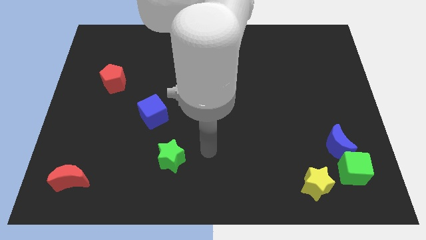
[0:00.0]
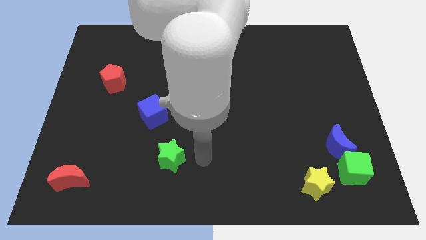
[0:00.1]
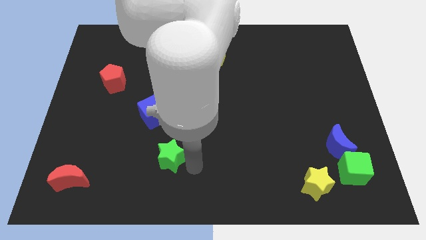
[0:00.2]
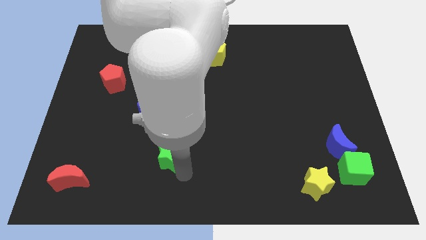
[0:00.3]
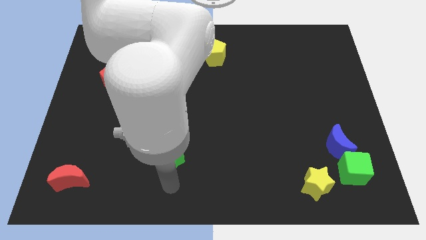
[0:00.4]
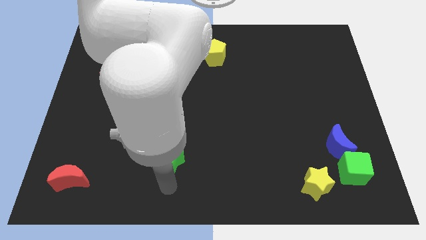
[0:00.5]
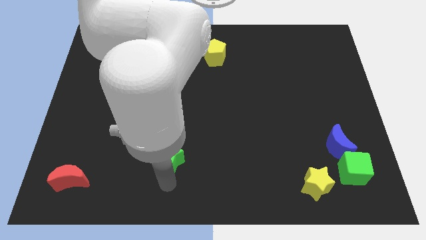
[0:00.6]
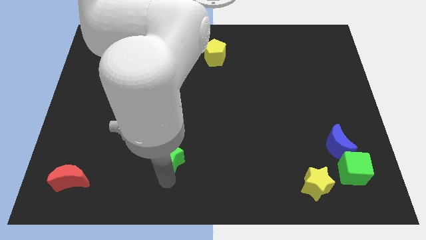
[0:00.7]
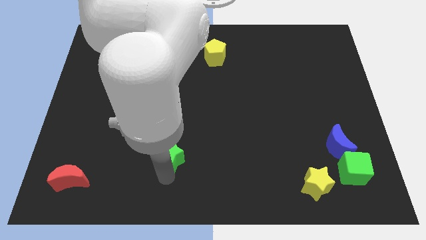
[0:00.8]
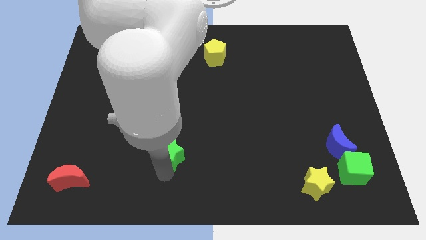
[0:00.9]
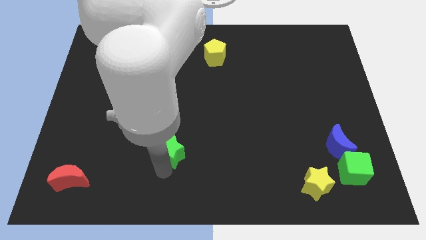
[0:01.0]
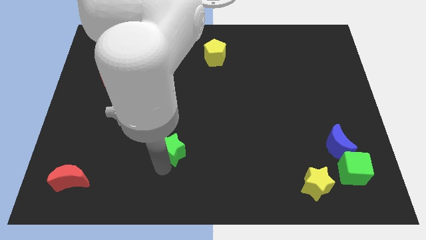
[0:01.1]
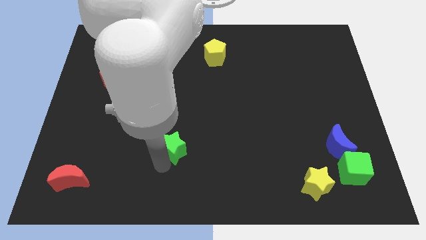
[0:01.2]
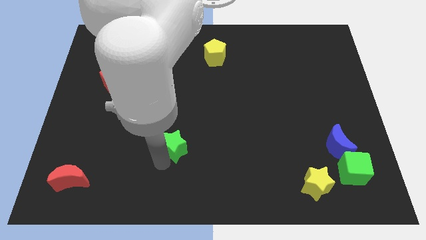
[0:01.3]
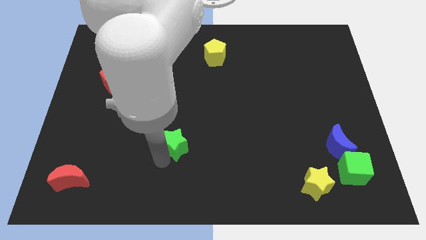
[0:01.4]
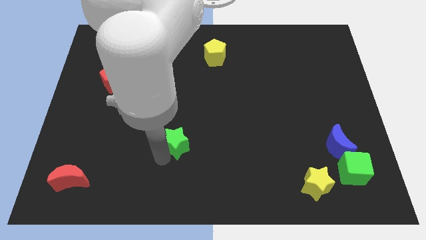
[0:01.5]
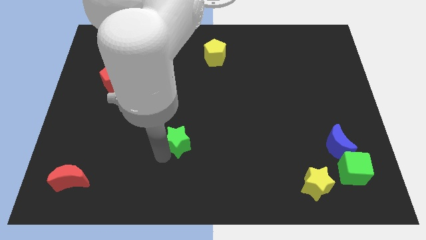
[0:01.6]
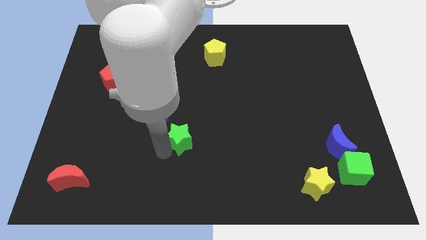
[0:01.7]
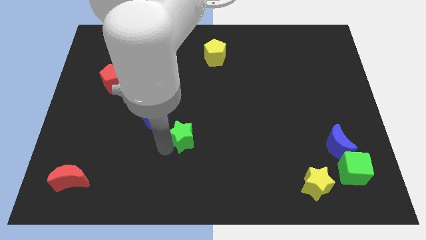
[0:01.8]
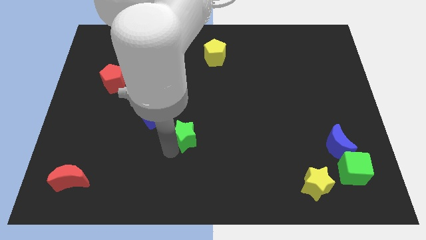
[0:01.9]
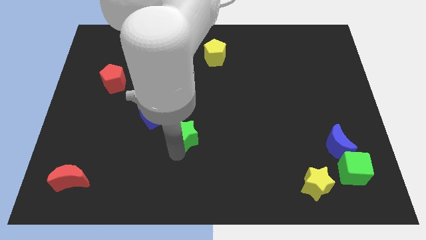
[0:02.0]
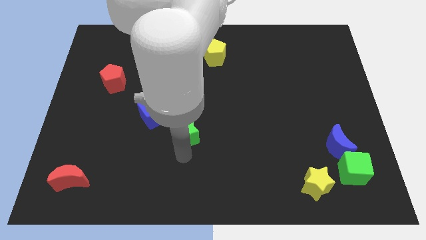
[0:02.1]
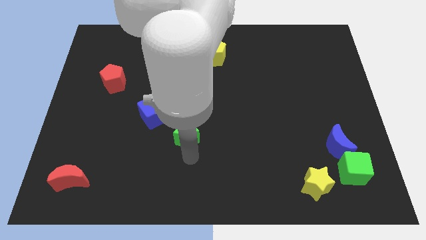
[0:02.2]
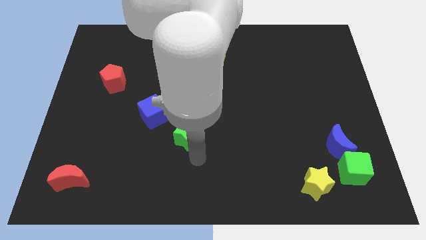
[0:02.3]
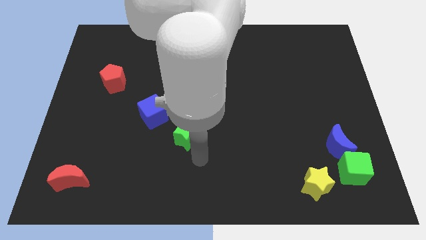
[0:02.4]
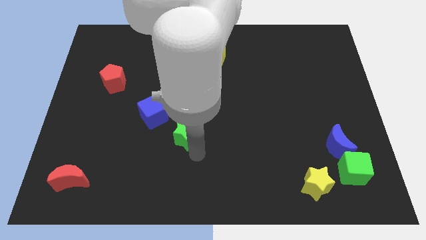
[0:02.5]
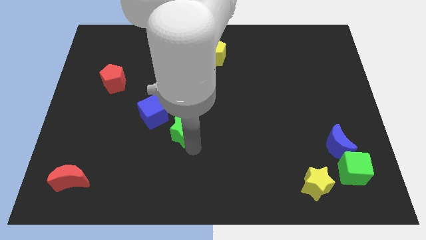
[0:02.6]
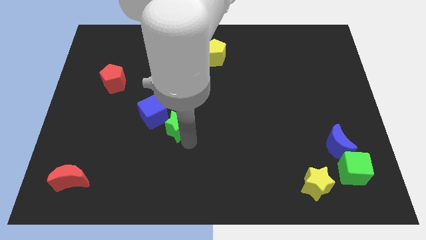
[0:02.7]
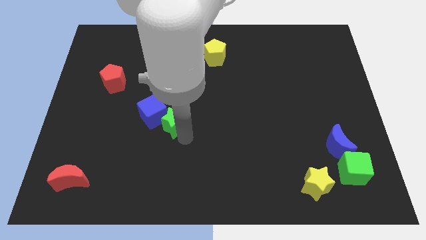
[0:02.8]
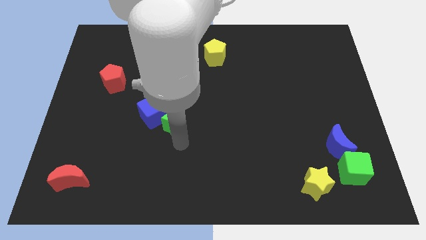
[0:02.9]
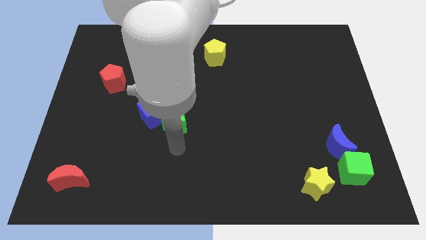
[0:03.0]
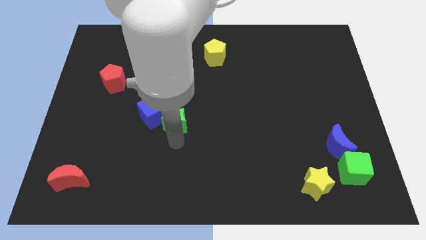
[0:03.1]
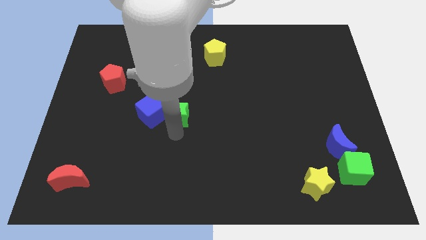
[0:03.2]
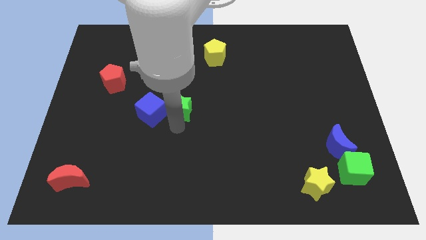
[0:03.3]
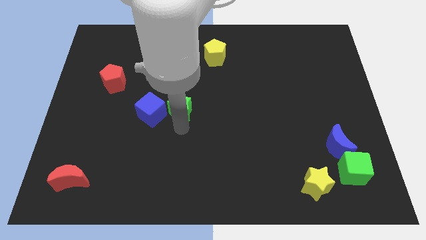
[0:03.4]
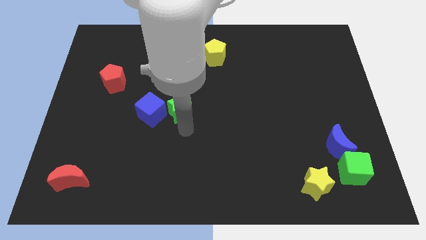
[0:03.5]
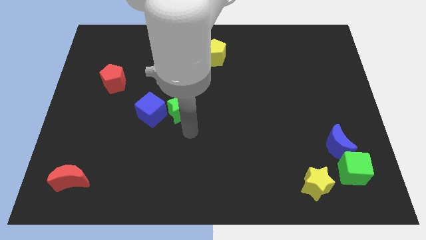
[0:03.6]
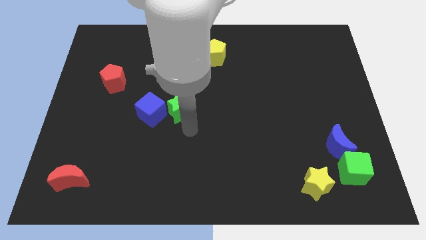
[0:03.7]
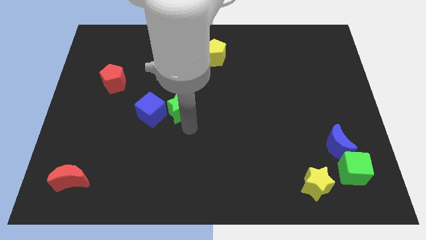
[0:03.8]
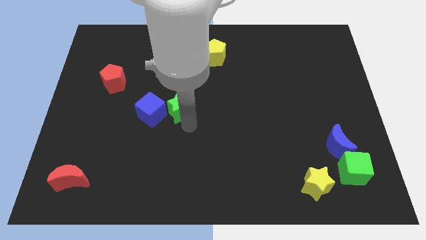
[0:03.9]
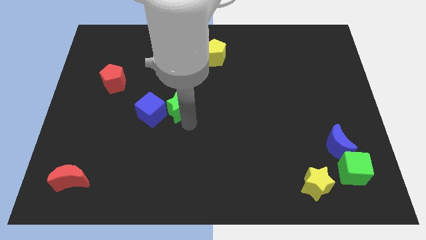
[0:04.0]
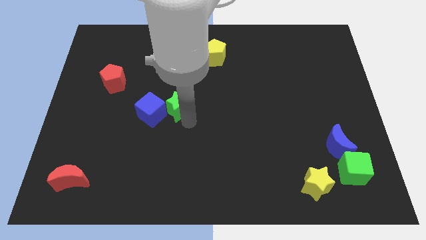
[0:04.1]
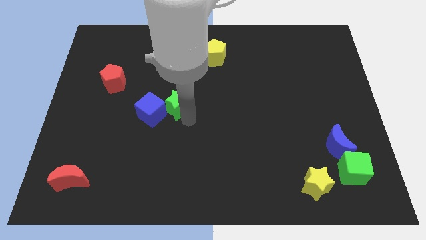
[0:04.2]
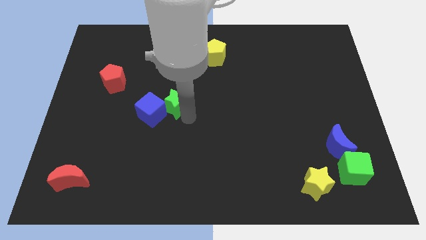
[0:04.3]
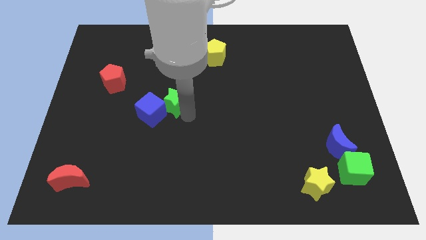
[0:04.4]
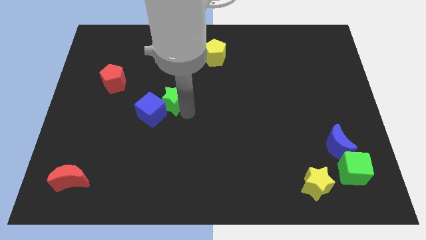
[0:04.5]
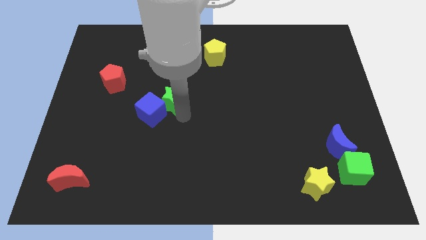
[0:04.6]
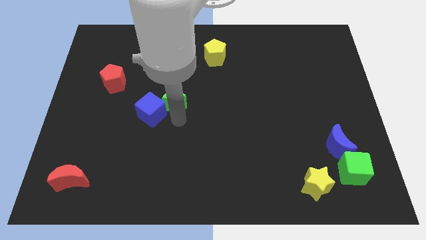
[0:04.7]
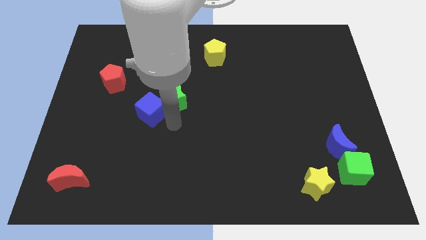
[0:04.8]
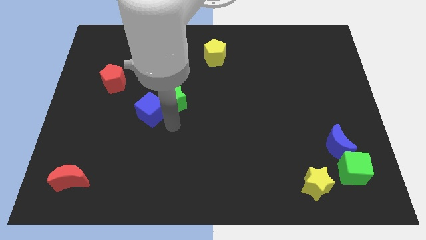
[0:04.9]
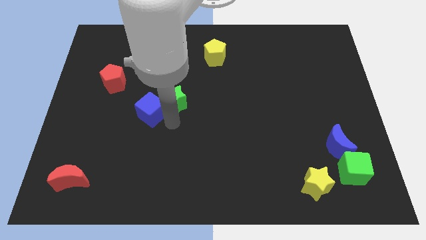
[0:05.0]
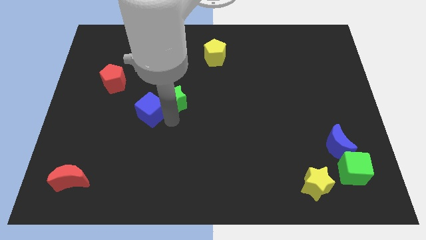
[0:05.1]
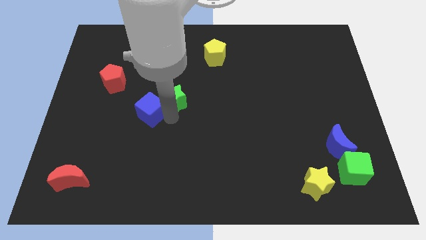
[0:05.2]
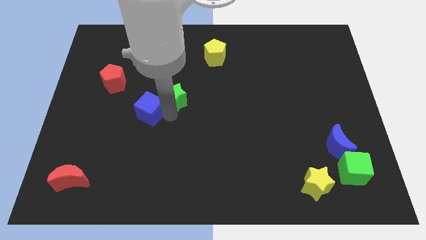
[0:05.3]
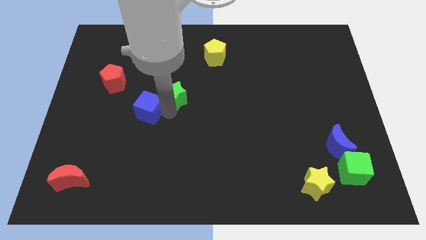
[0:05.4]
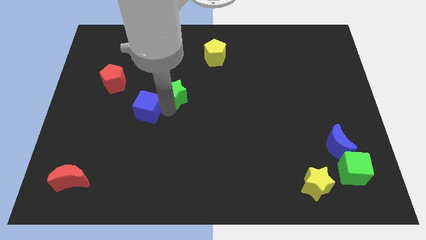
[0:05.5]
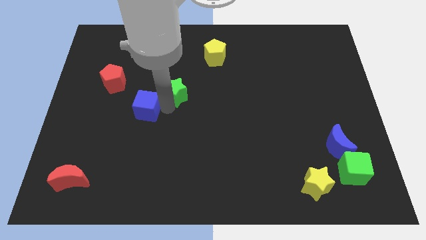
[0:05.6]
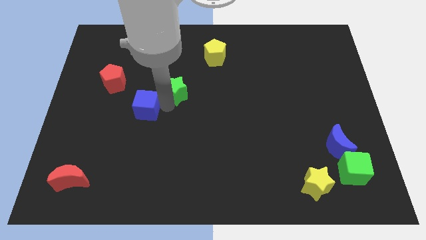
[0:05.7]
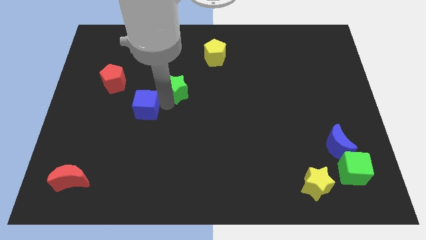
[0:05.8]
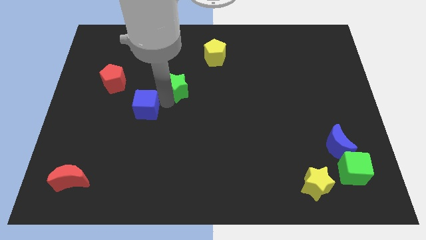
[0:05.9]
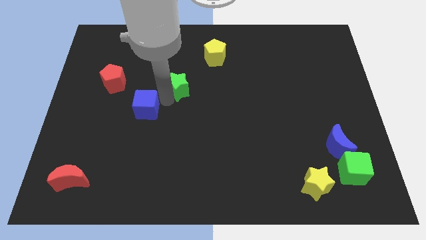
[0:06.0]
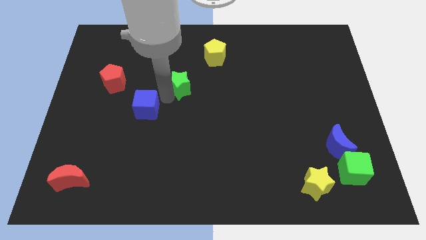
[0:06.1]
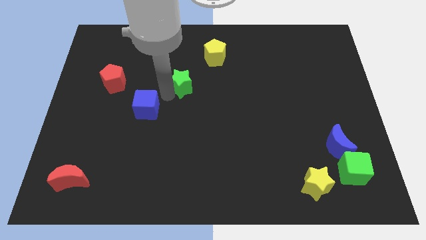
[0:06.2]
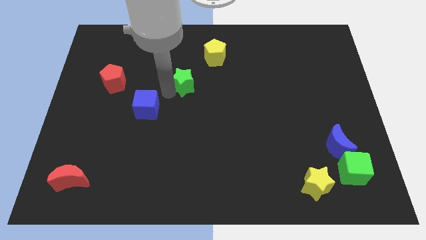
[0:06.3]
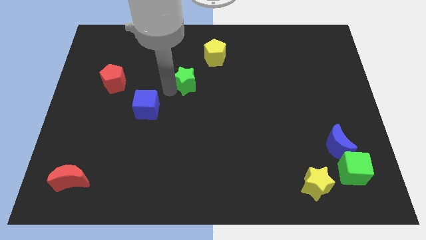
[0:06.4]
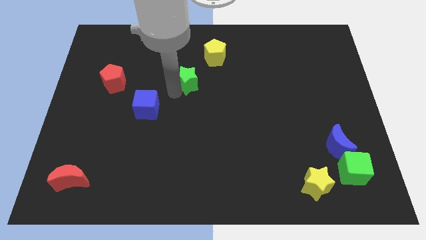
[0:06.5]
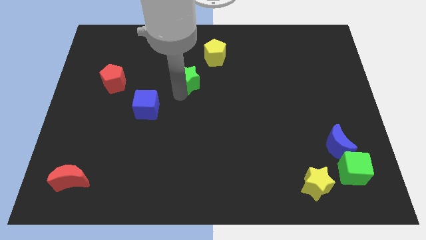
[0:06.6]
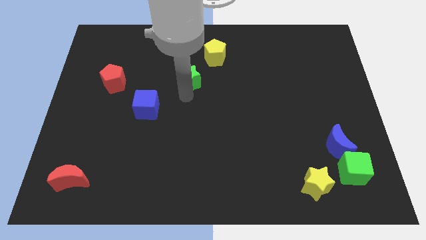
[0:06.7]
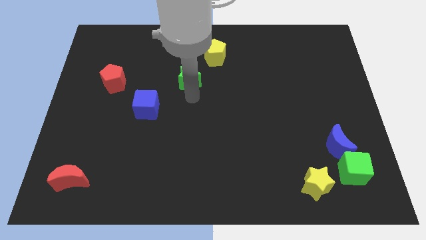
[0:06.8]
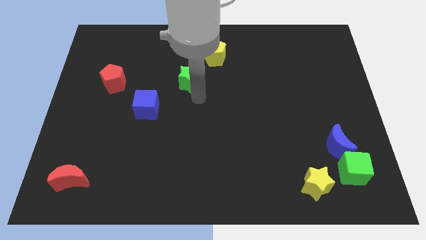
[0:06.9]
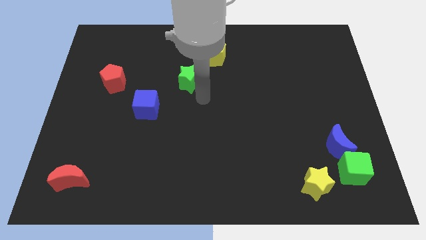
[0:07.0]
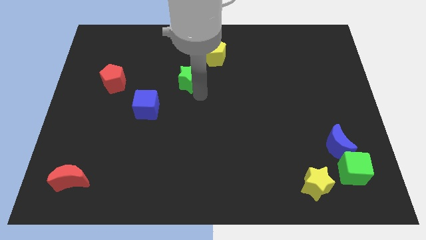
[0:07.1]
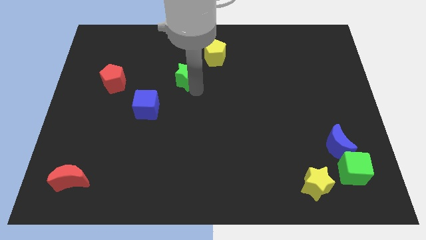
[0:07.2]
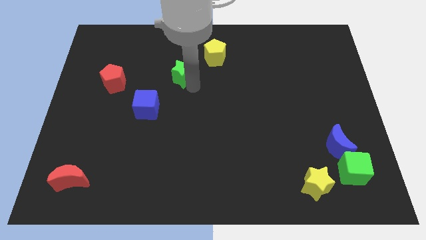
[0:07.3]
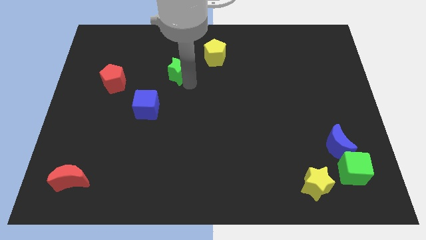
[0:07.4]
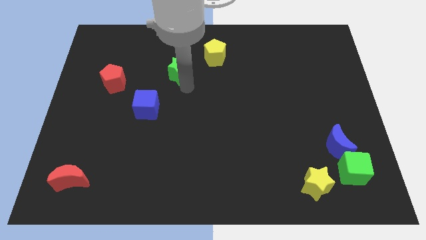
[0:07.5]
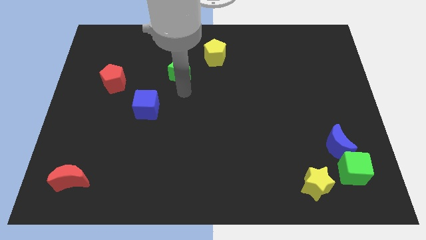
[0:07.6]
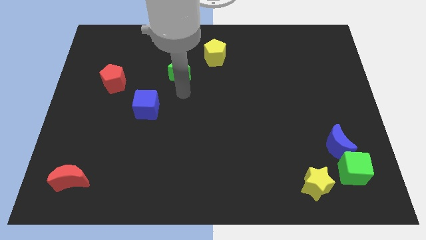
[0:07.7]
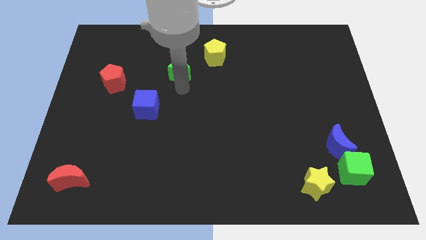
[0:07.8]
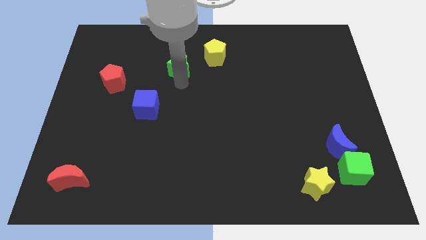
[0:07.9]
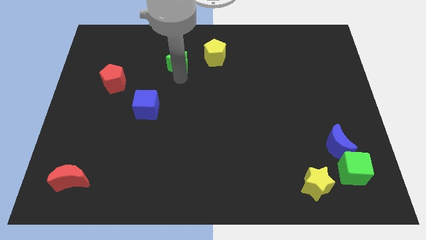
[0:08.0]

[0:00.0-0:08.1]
push the green star to the left side of the yellow pentagon

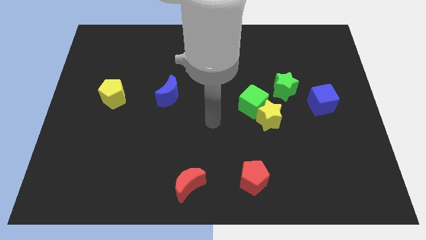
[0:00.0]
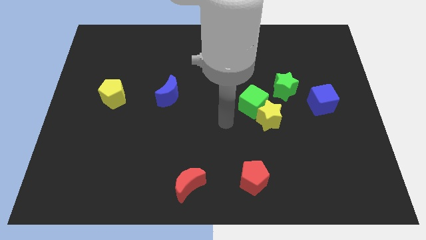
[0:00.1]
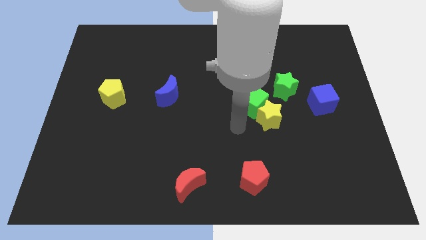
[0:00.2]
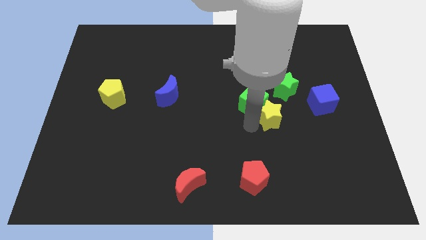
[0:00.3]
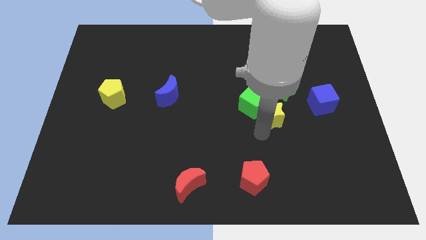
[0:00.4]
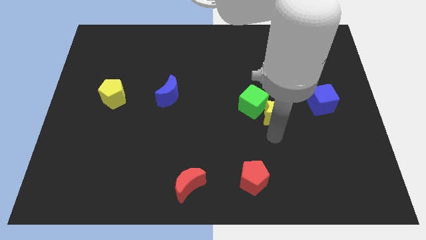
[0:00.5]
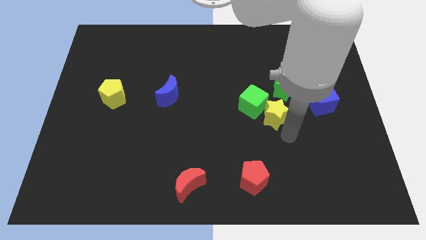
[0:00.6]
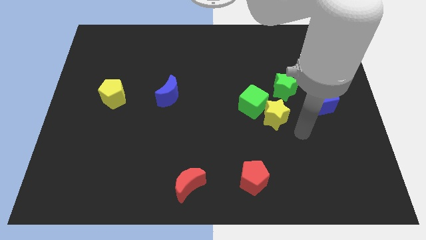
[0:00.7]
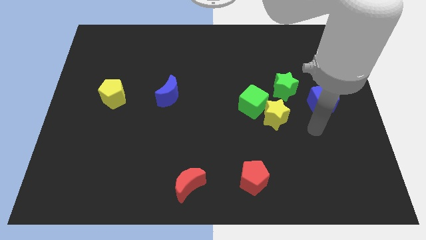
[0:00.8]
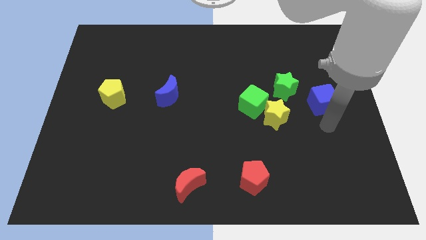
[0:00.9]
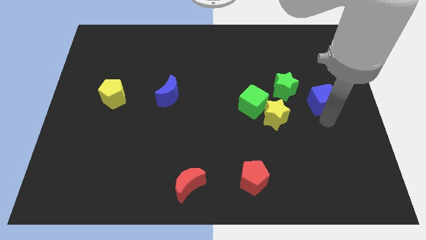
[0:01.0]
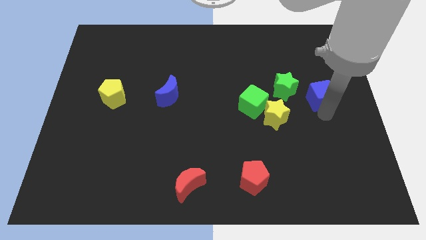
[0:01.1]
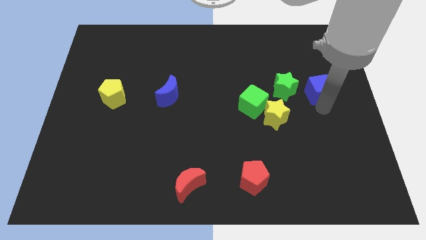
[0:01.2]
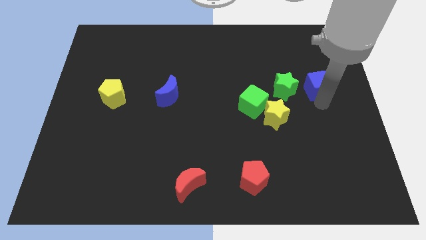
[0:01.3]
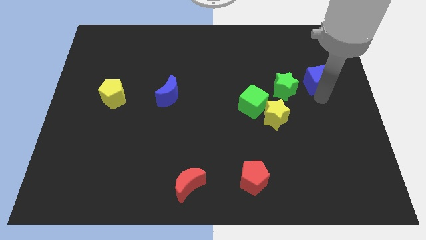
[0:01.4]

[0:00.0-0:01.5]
put the blue cube to the top right of the green star
